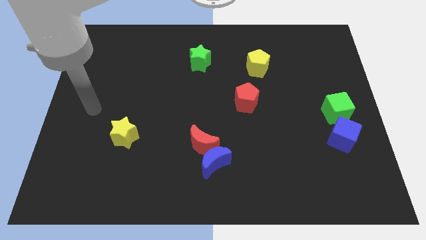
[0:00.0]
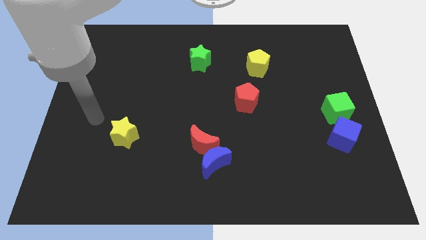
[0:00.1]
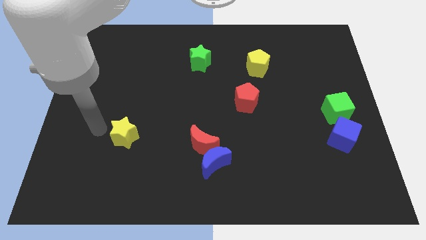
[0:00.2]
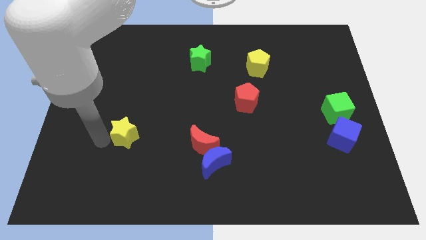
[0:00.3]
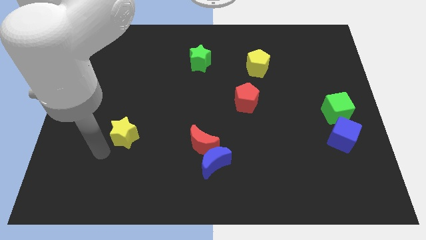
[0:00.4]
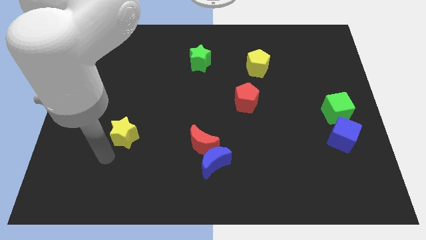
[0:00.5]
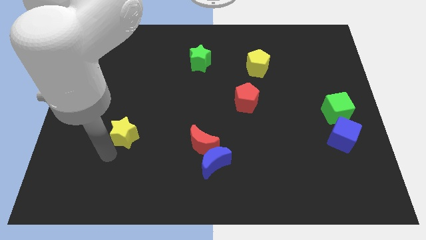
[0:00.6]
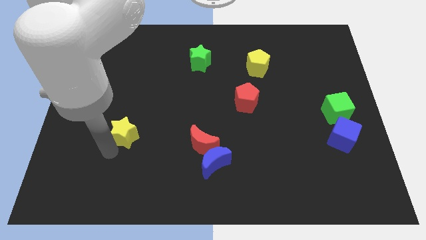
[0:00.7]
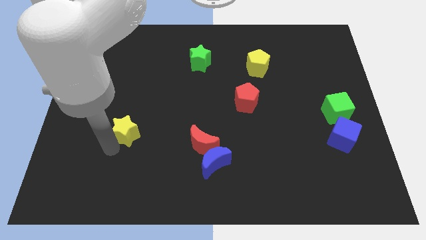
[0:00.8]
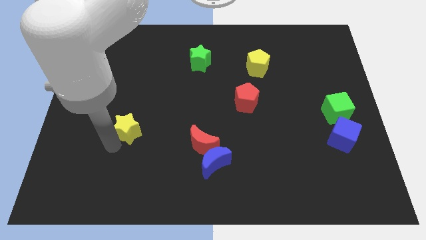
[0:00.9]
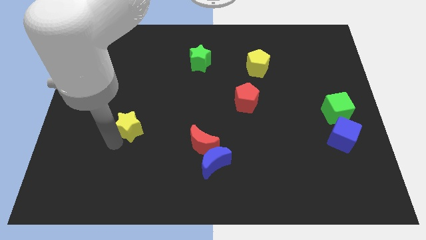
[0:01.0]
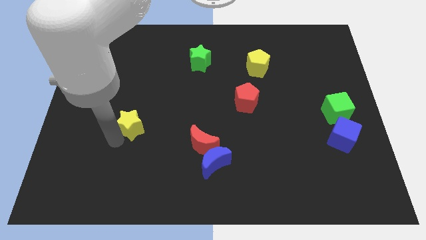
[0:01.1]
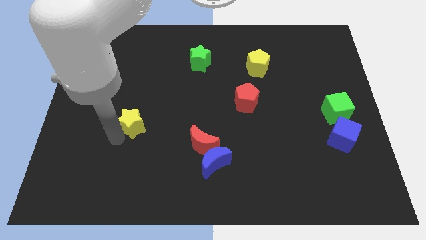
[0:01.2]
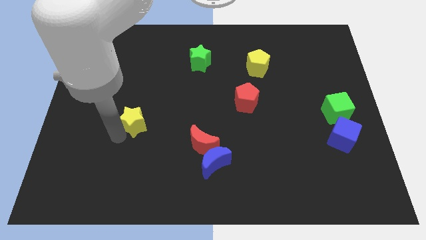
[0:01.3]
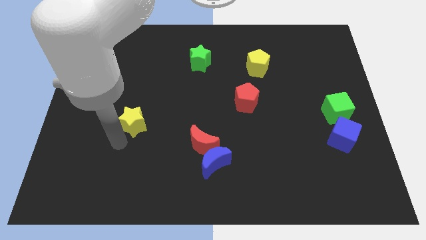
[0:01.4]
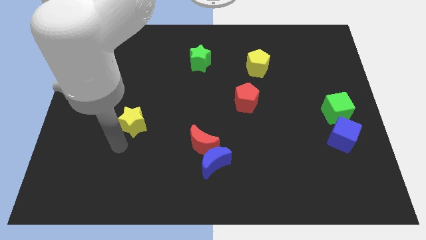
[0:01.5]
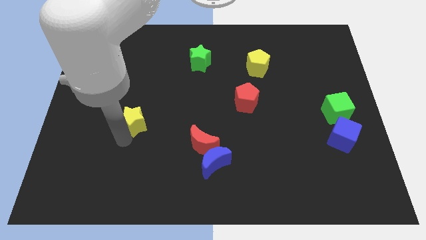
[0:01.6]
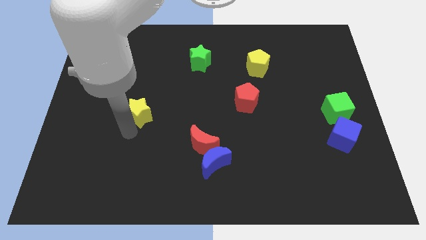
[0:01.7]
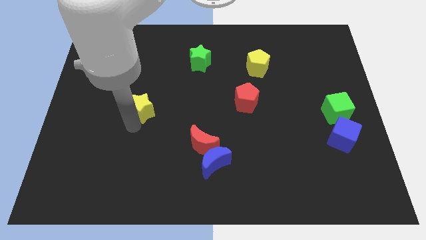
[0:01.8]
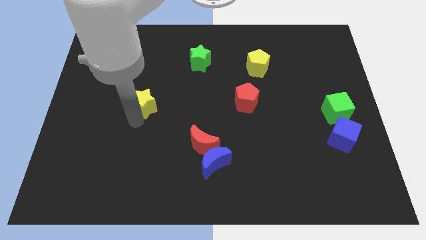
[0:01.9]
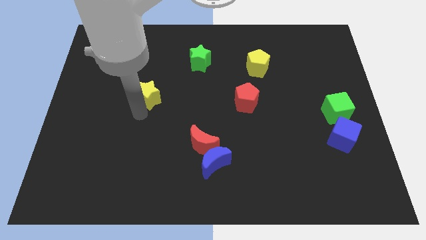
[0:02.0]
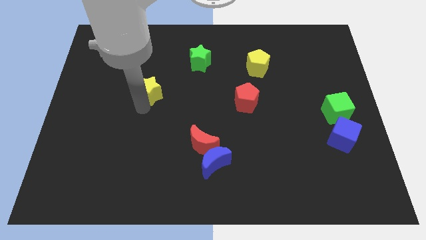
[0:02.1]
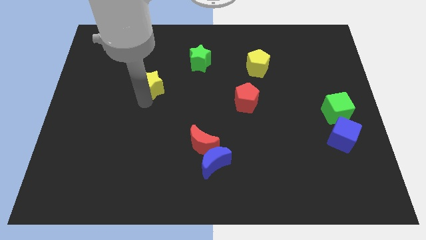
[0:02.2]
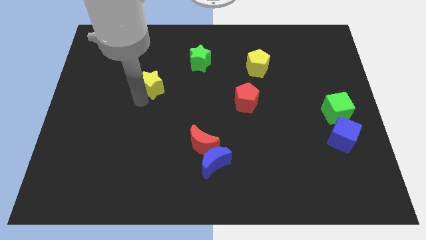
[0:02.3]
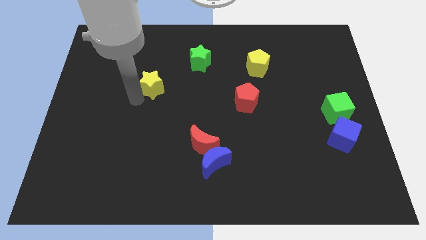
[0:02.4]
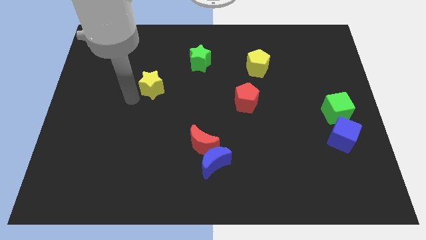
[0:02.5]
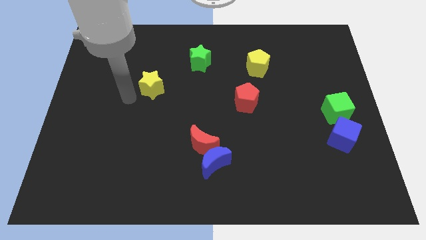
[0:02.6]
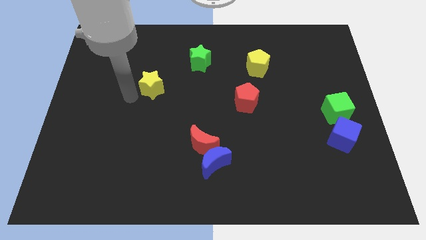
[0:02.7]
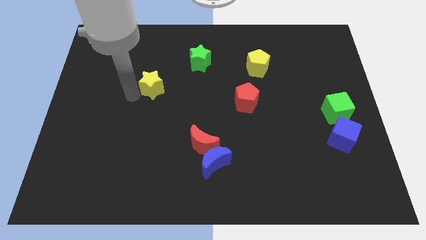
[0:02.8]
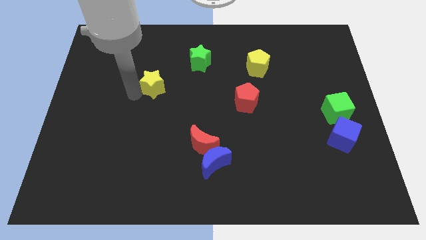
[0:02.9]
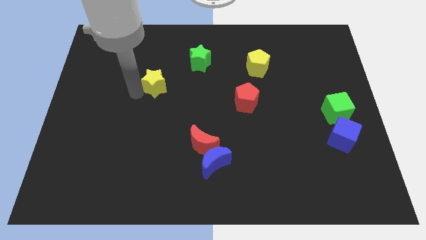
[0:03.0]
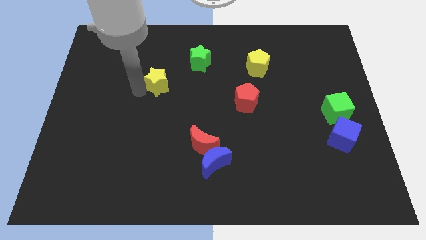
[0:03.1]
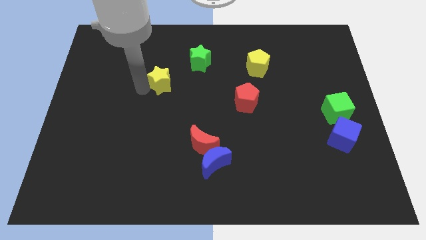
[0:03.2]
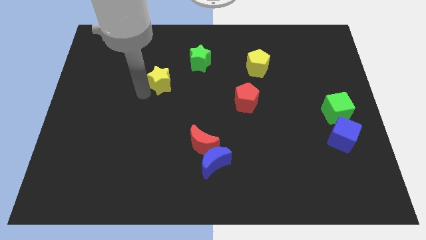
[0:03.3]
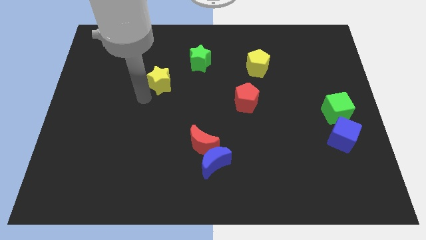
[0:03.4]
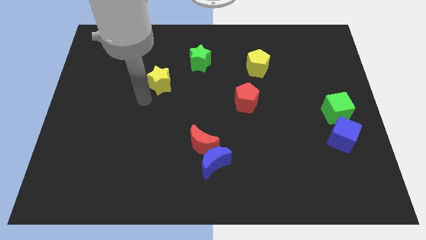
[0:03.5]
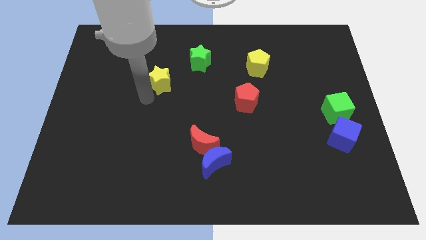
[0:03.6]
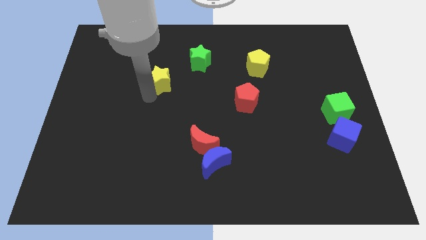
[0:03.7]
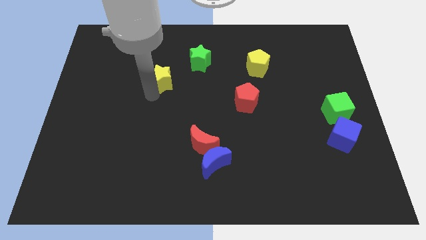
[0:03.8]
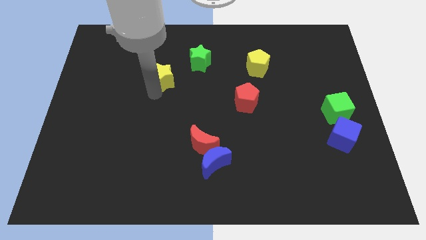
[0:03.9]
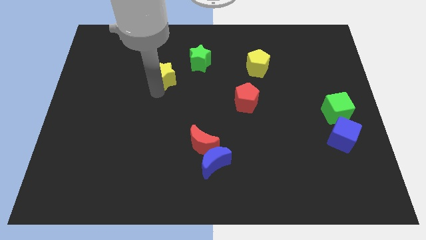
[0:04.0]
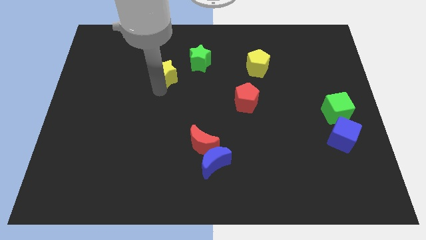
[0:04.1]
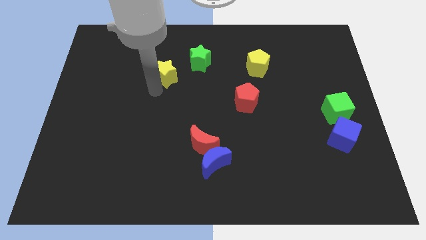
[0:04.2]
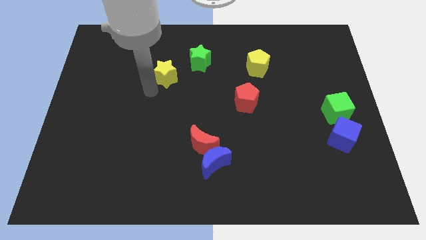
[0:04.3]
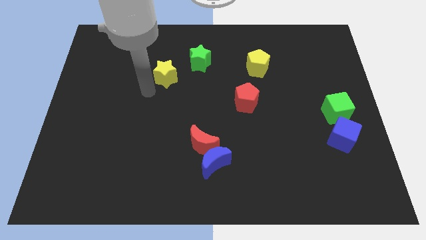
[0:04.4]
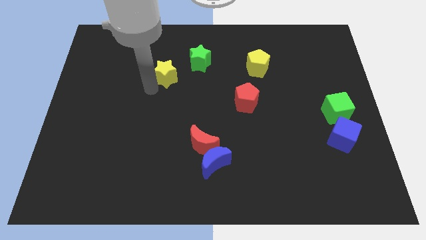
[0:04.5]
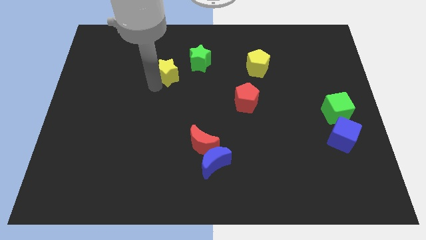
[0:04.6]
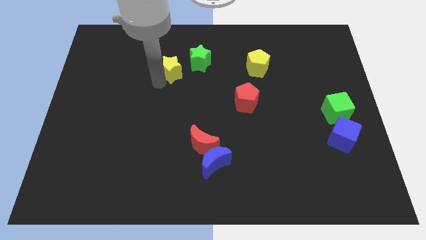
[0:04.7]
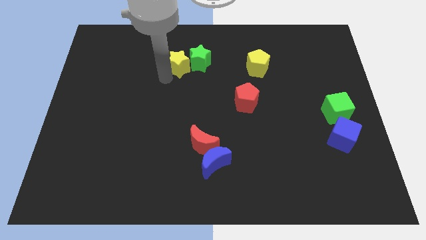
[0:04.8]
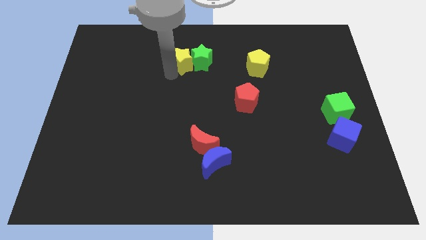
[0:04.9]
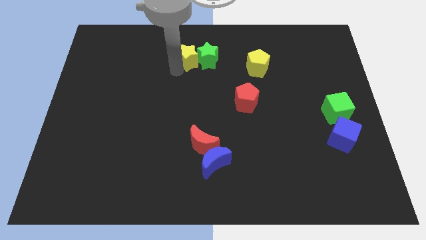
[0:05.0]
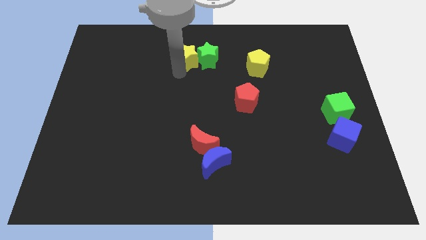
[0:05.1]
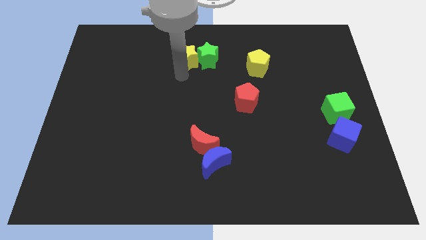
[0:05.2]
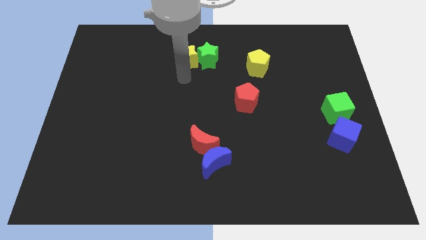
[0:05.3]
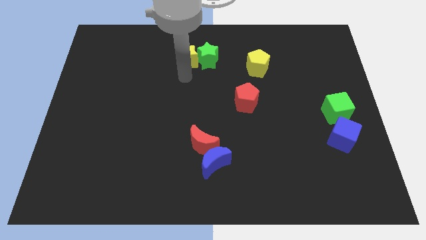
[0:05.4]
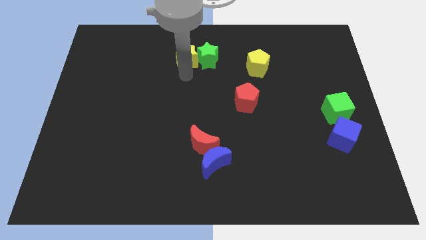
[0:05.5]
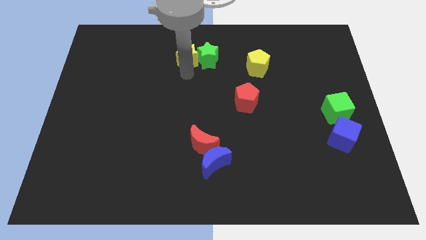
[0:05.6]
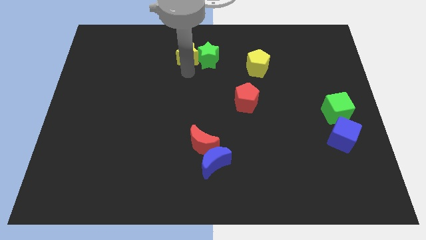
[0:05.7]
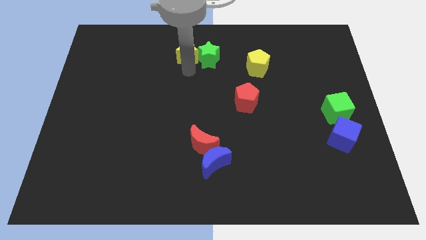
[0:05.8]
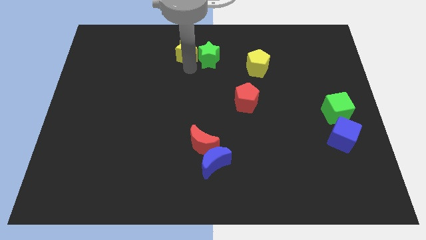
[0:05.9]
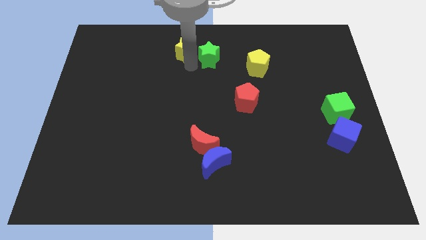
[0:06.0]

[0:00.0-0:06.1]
slide the yellow star to the top
